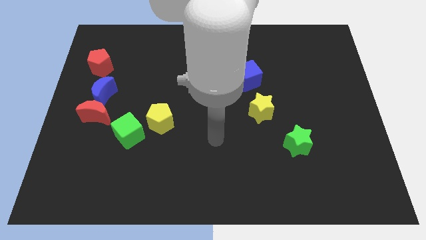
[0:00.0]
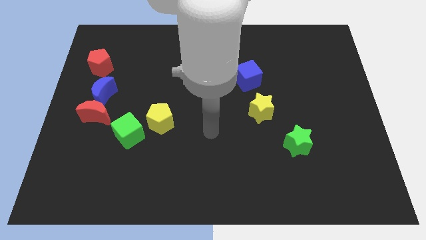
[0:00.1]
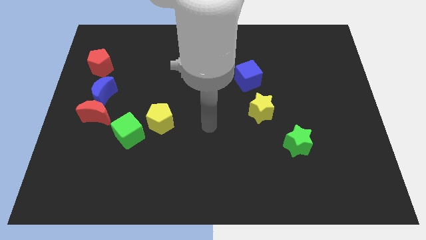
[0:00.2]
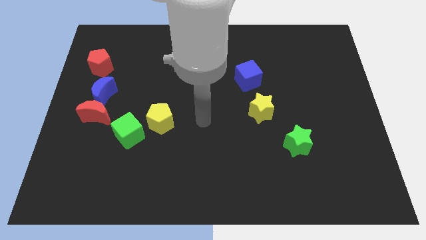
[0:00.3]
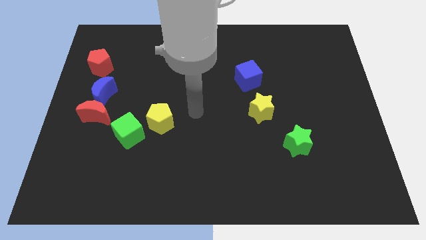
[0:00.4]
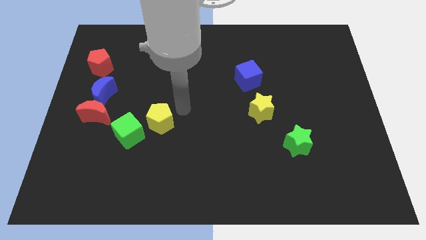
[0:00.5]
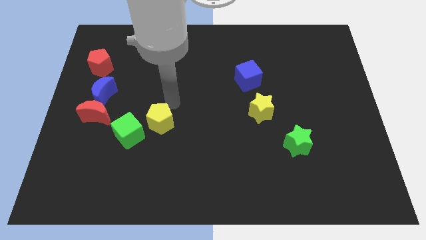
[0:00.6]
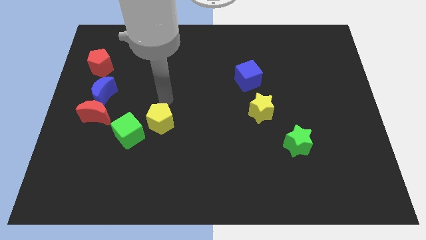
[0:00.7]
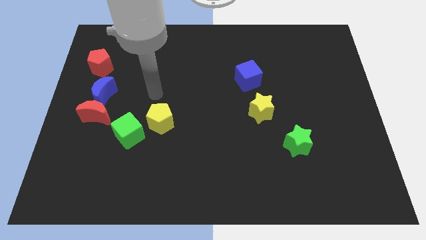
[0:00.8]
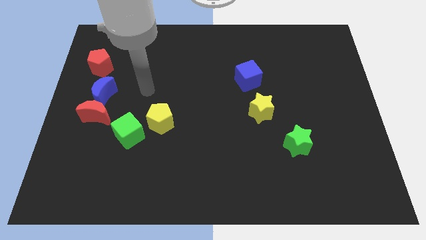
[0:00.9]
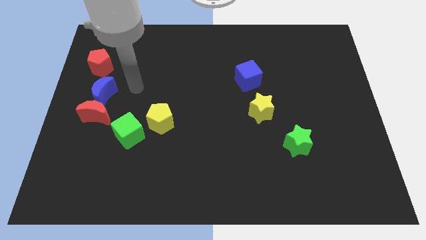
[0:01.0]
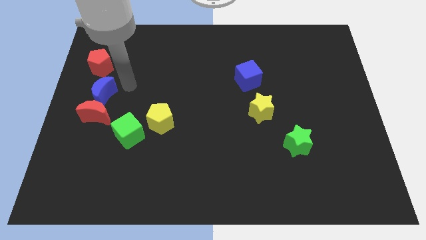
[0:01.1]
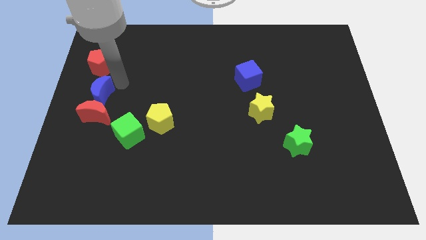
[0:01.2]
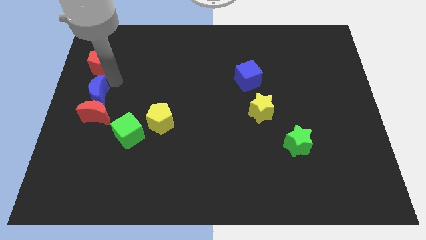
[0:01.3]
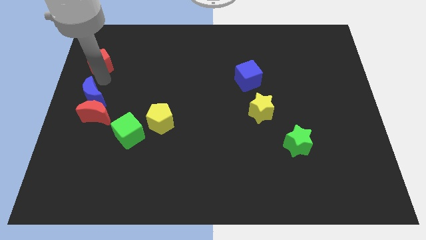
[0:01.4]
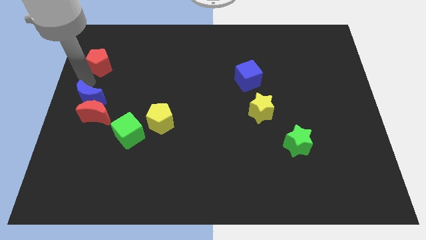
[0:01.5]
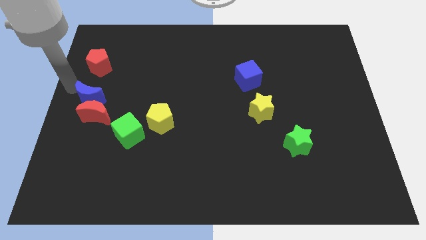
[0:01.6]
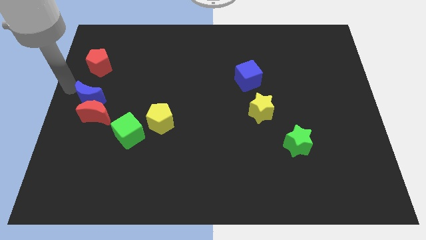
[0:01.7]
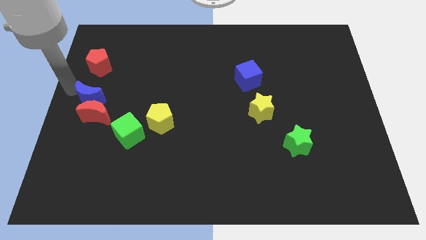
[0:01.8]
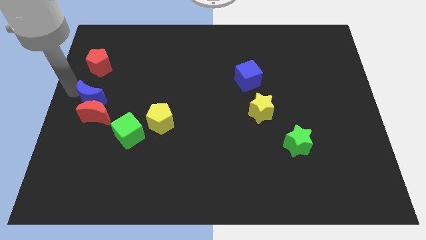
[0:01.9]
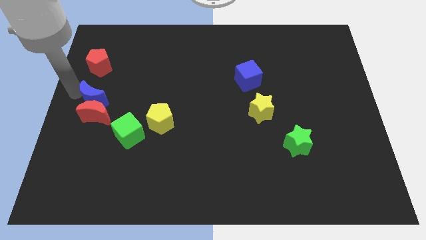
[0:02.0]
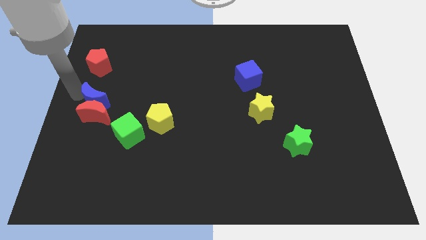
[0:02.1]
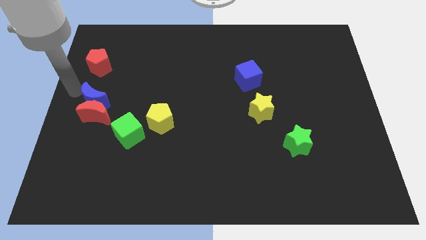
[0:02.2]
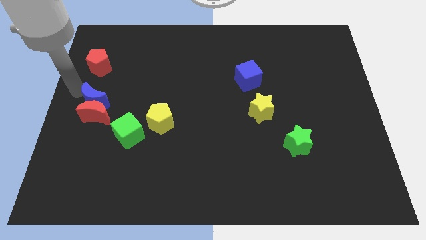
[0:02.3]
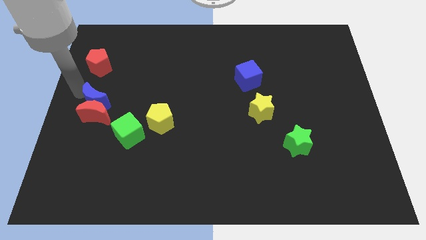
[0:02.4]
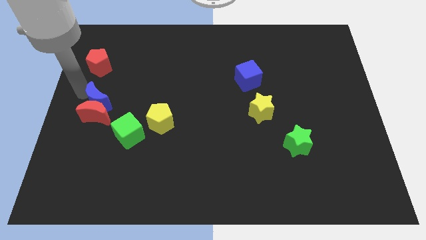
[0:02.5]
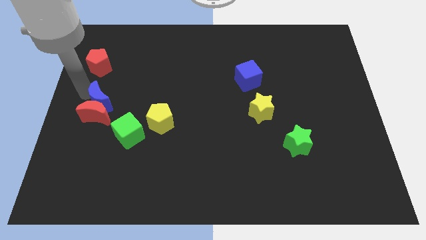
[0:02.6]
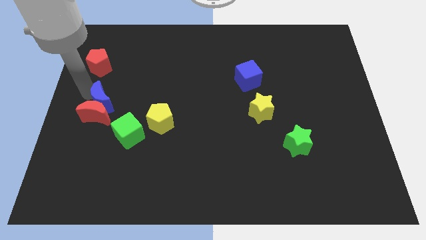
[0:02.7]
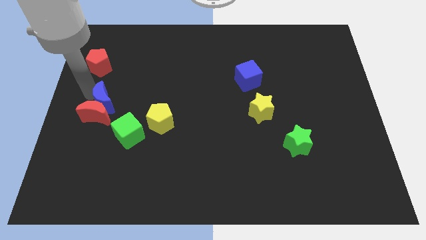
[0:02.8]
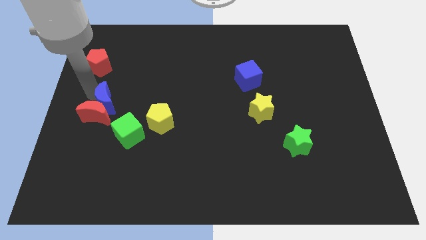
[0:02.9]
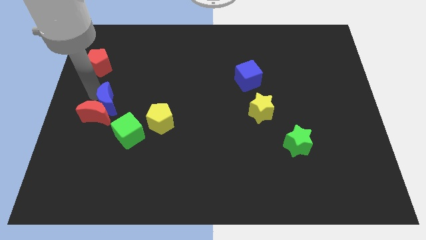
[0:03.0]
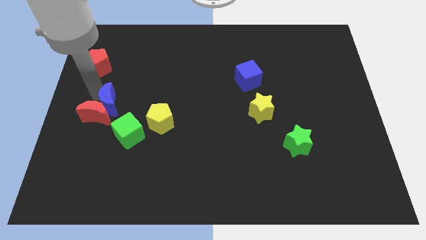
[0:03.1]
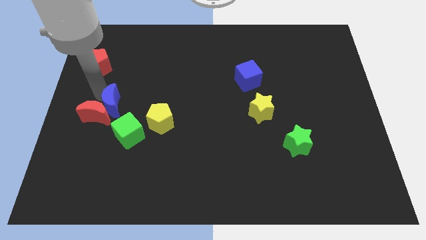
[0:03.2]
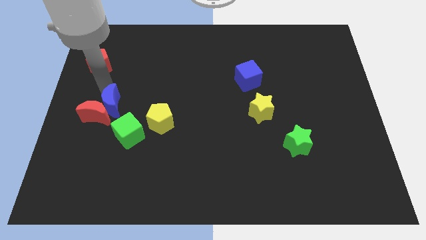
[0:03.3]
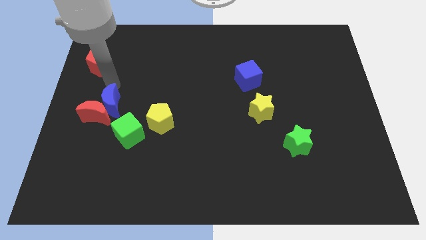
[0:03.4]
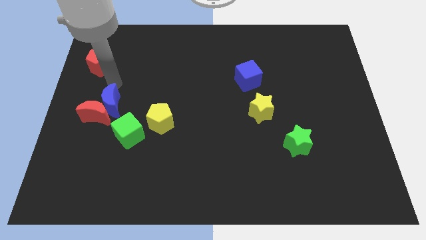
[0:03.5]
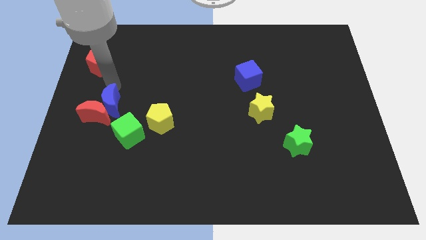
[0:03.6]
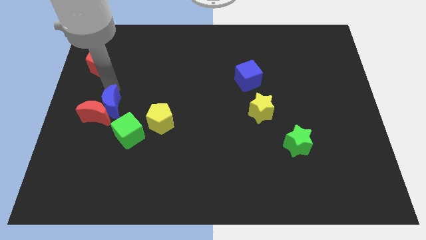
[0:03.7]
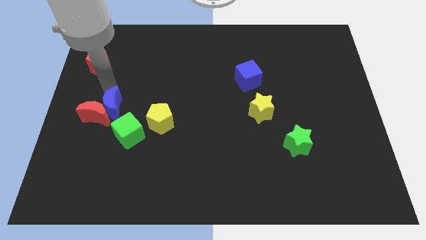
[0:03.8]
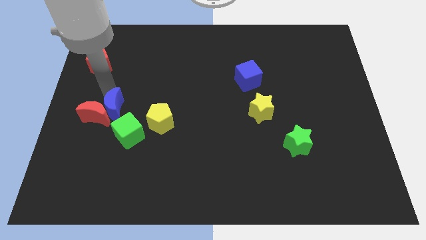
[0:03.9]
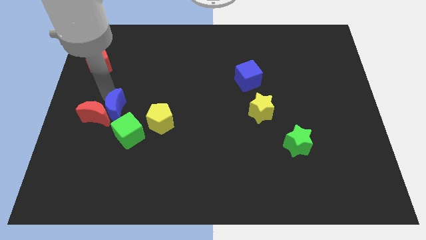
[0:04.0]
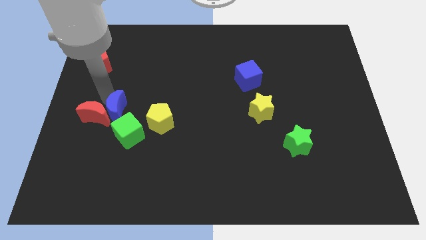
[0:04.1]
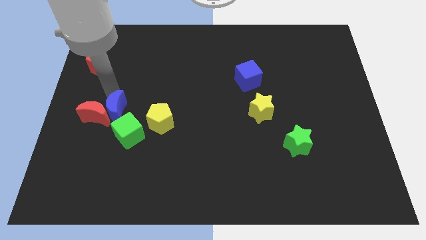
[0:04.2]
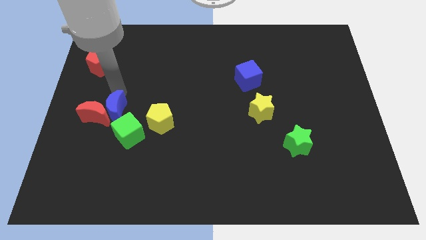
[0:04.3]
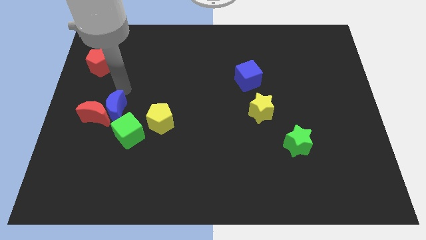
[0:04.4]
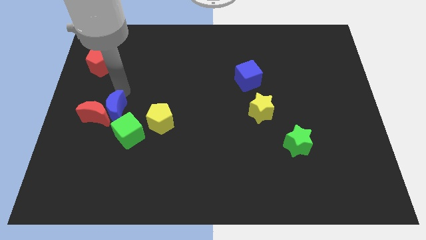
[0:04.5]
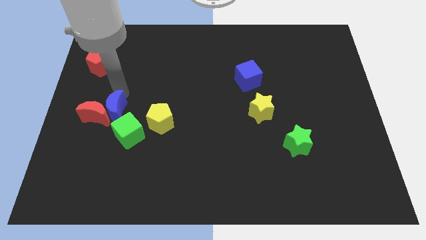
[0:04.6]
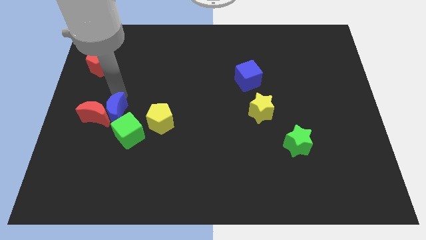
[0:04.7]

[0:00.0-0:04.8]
slightly push the blue moon downwards and then right

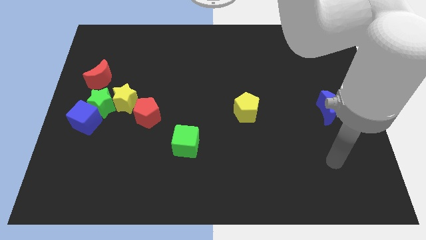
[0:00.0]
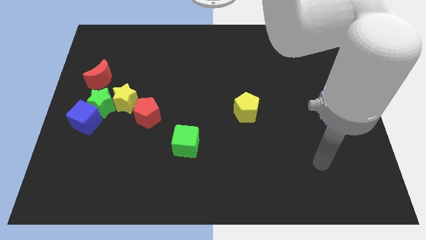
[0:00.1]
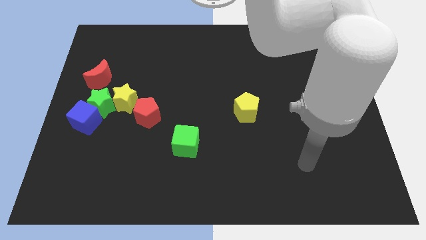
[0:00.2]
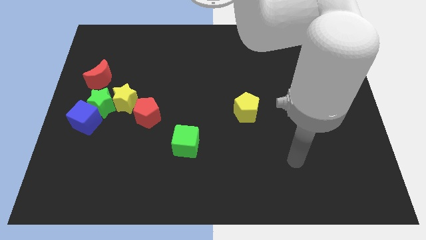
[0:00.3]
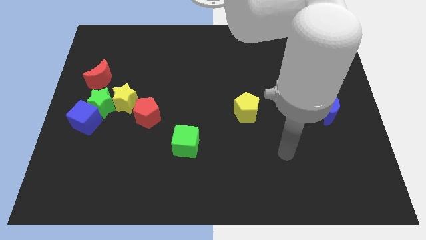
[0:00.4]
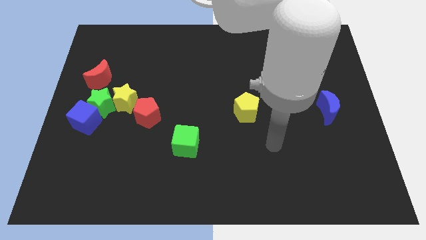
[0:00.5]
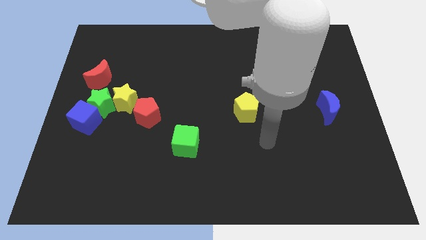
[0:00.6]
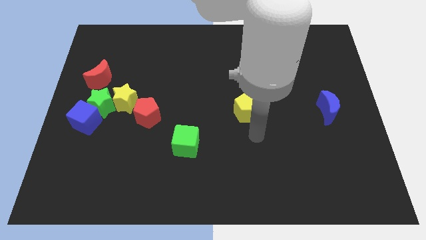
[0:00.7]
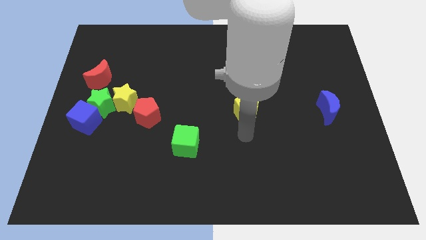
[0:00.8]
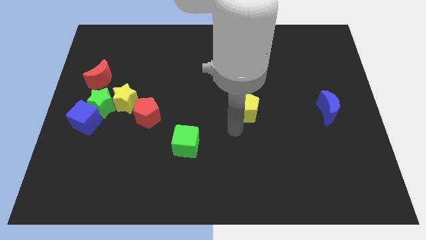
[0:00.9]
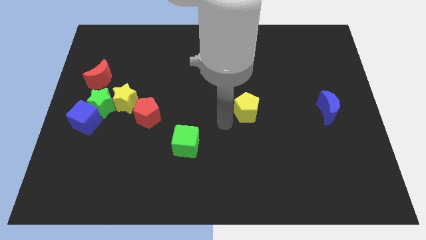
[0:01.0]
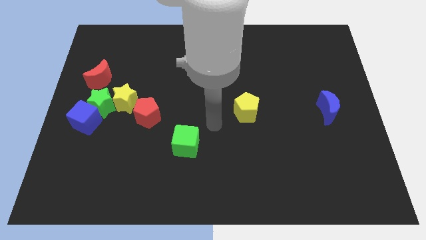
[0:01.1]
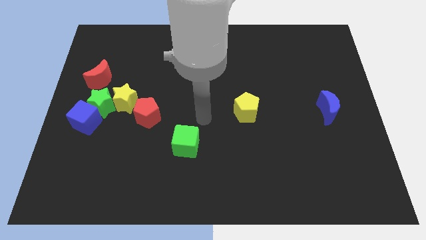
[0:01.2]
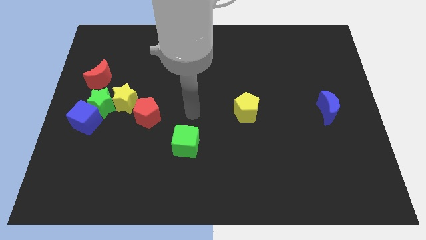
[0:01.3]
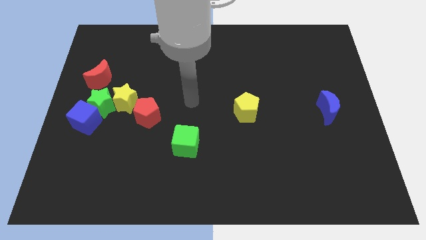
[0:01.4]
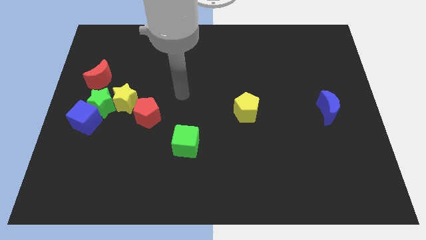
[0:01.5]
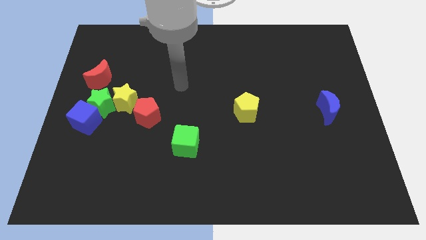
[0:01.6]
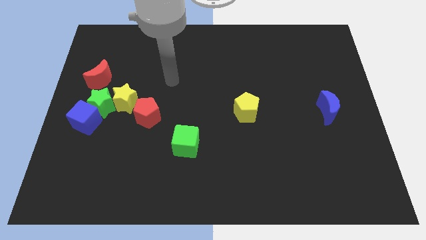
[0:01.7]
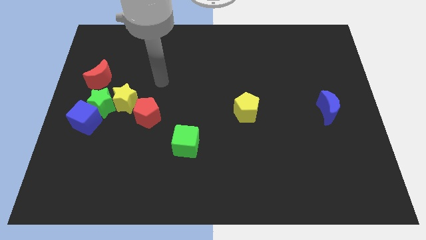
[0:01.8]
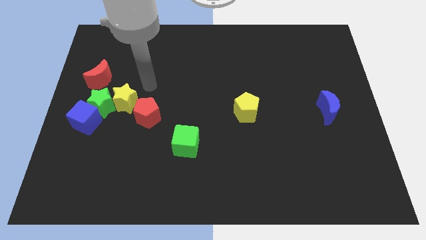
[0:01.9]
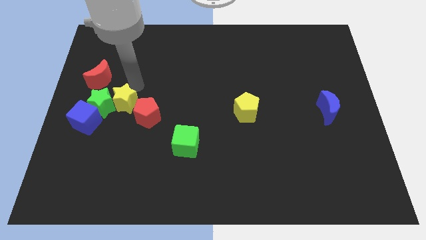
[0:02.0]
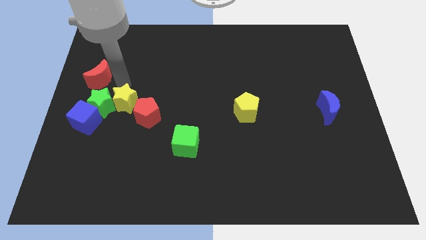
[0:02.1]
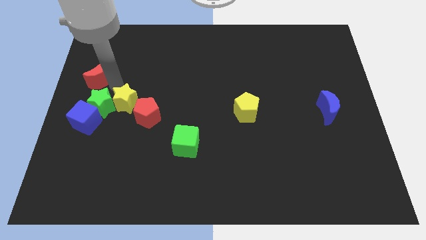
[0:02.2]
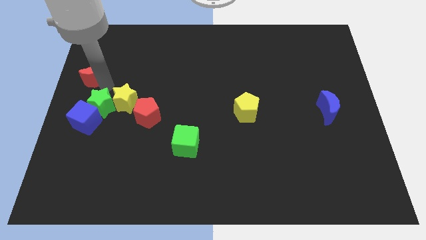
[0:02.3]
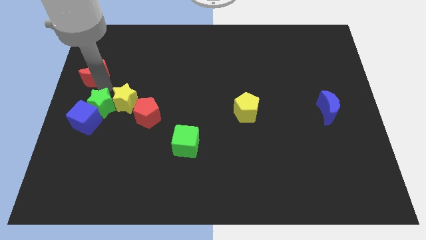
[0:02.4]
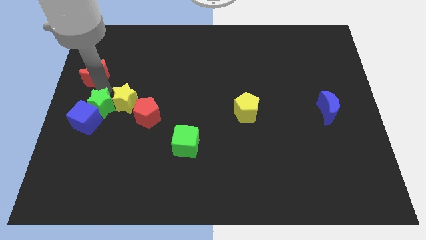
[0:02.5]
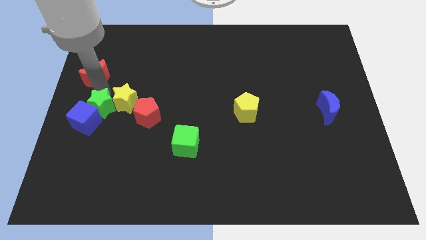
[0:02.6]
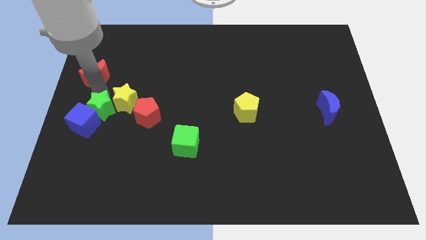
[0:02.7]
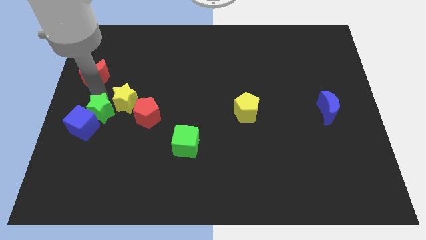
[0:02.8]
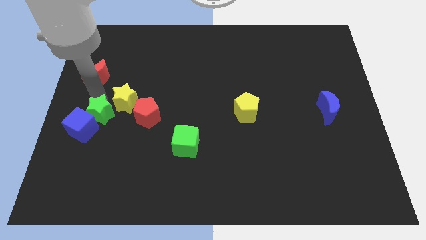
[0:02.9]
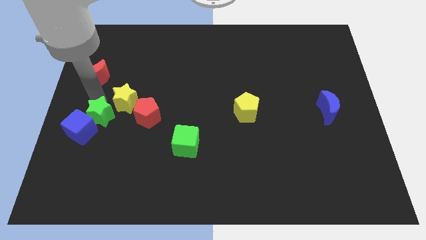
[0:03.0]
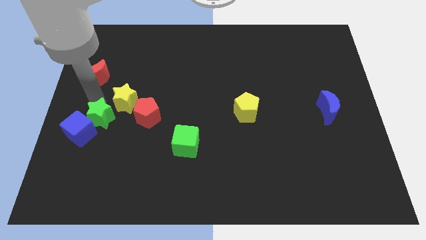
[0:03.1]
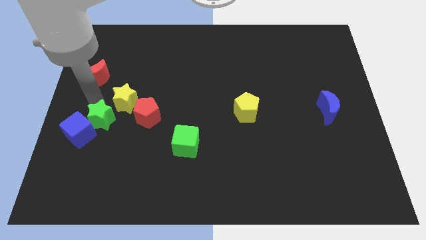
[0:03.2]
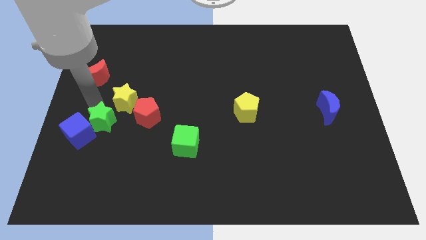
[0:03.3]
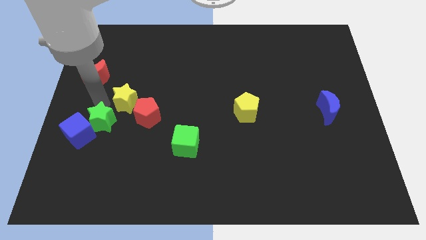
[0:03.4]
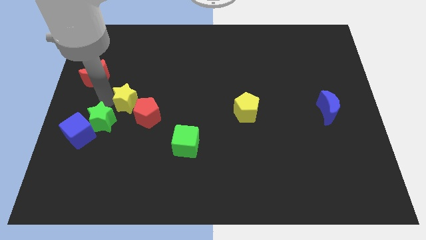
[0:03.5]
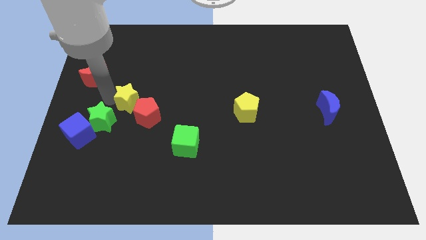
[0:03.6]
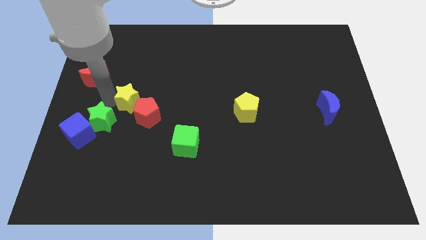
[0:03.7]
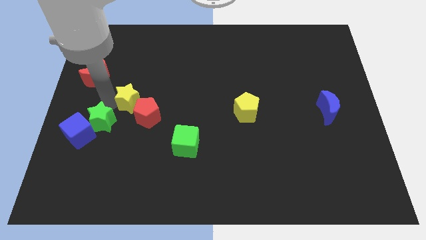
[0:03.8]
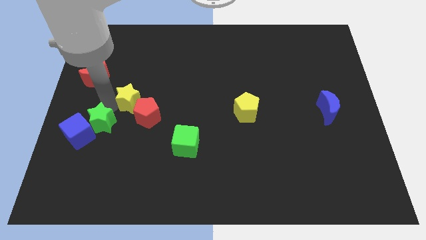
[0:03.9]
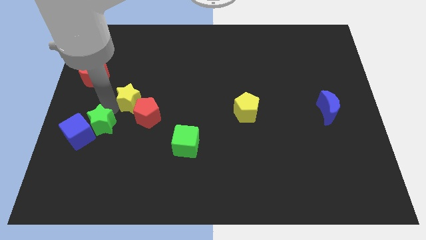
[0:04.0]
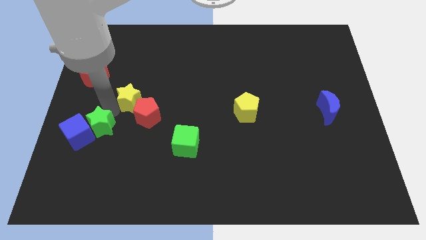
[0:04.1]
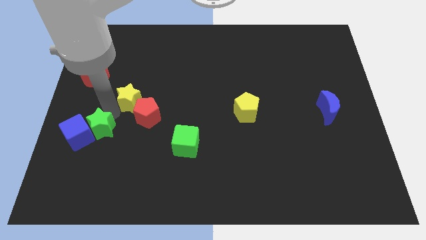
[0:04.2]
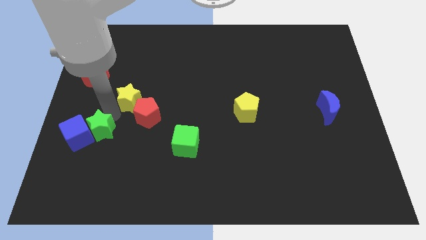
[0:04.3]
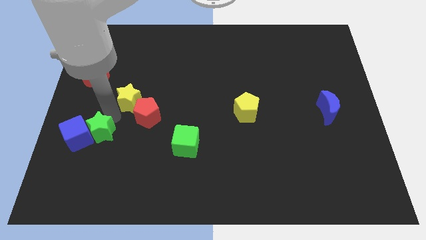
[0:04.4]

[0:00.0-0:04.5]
slide the green star a bit down
